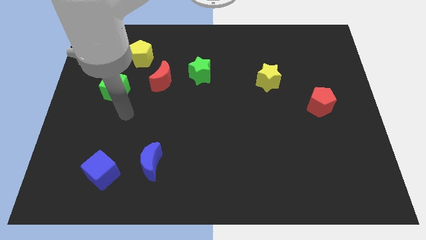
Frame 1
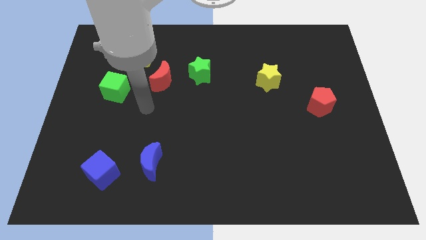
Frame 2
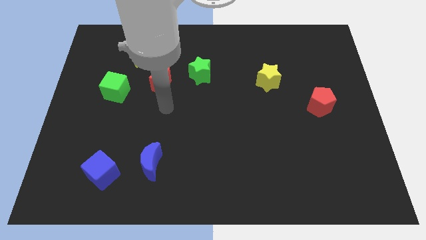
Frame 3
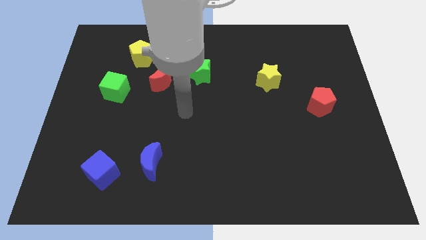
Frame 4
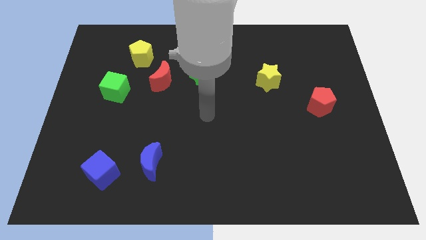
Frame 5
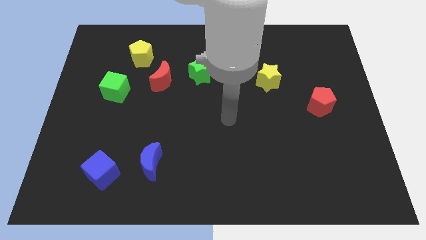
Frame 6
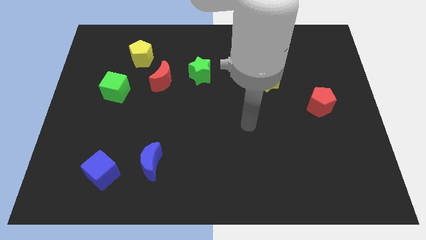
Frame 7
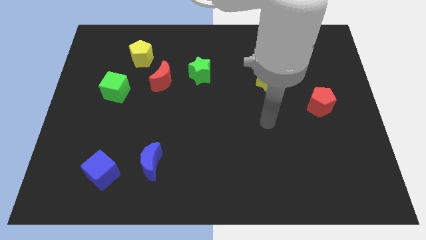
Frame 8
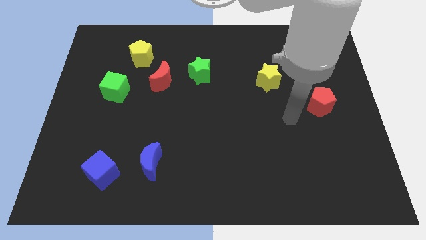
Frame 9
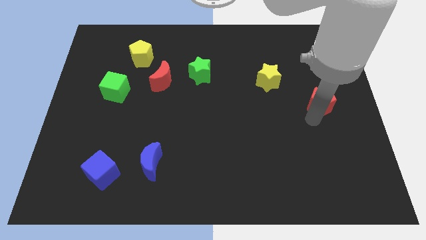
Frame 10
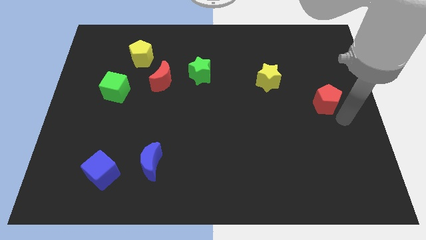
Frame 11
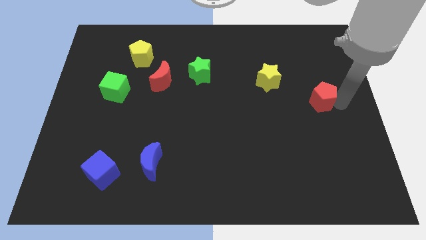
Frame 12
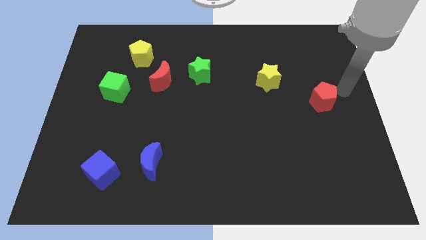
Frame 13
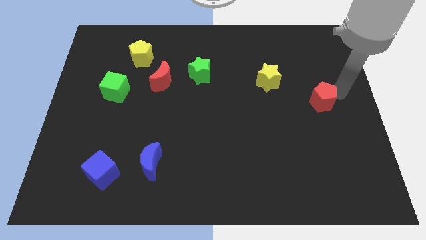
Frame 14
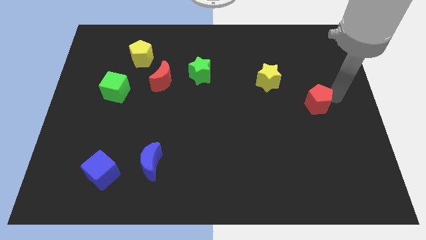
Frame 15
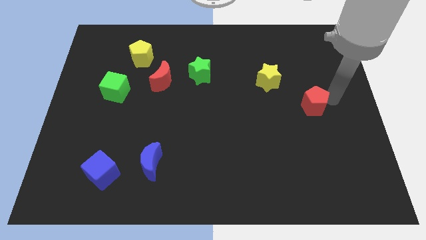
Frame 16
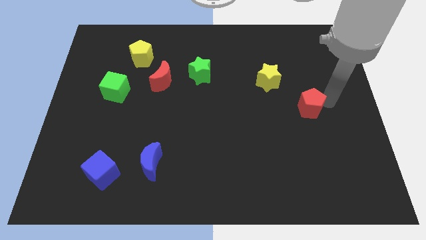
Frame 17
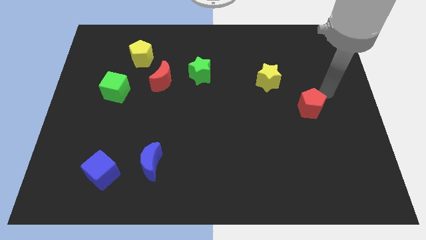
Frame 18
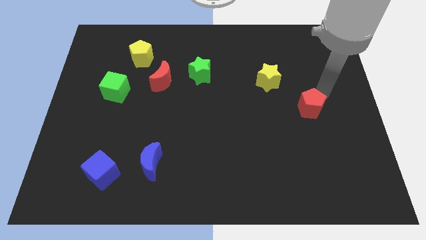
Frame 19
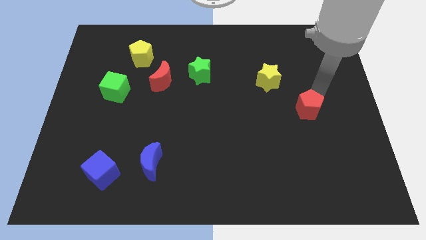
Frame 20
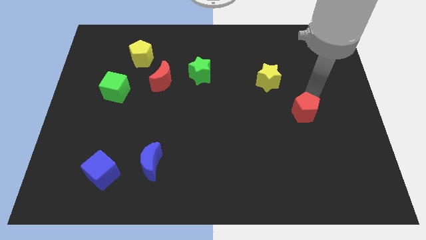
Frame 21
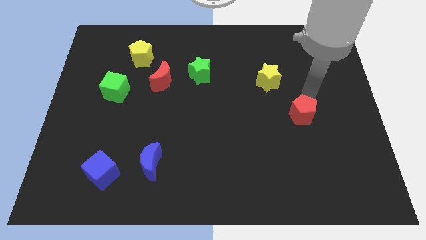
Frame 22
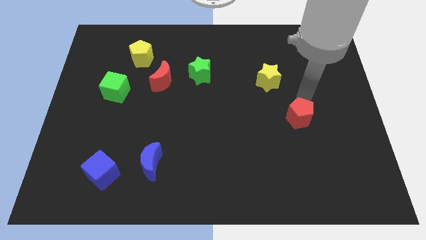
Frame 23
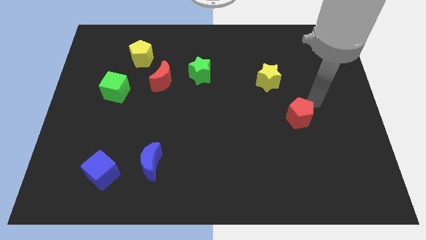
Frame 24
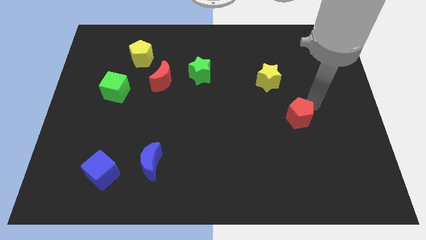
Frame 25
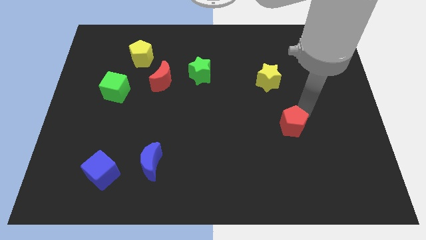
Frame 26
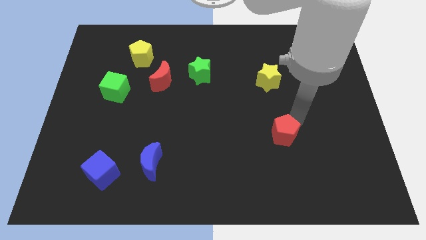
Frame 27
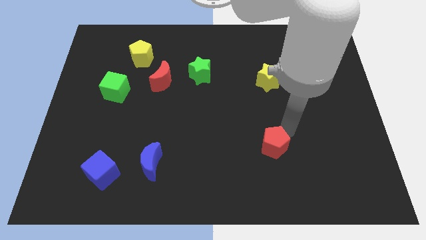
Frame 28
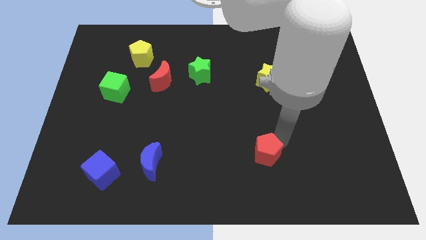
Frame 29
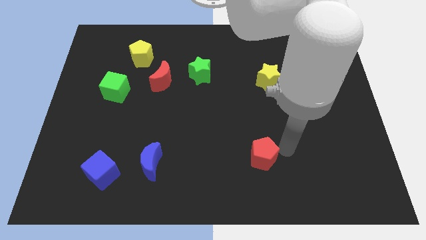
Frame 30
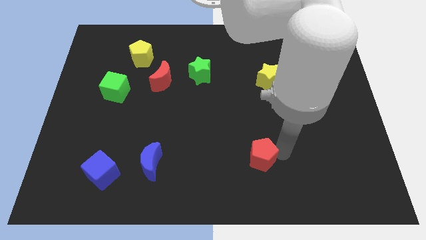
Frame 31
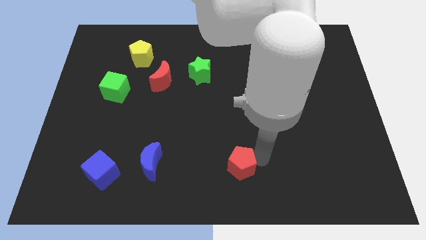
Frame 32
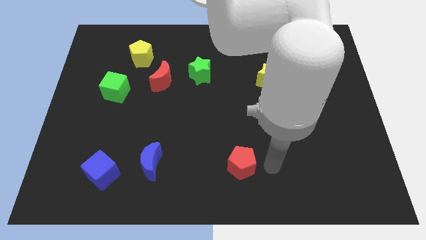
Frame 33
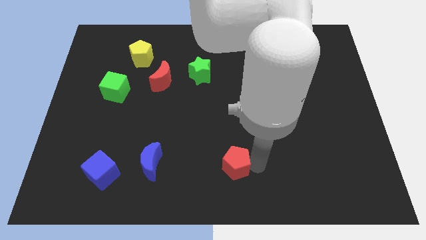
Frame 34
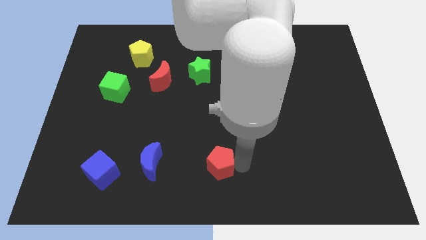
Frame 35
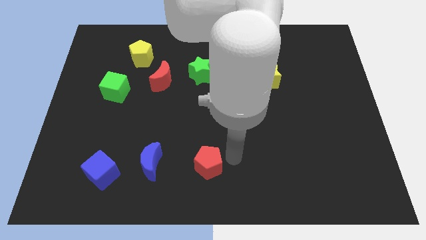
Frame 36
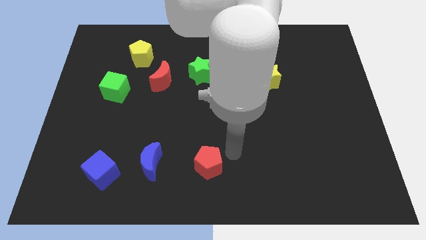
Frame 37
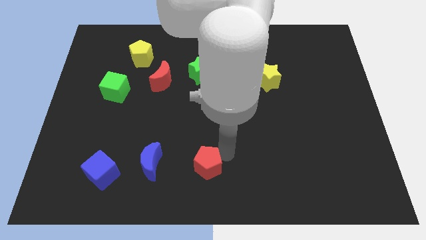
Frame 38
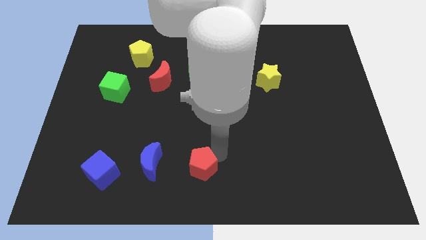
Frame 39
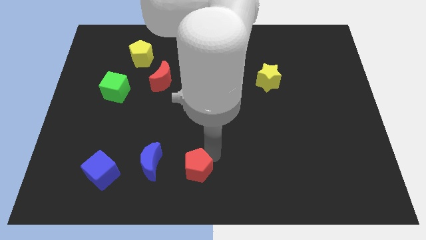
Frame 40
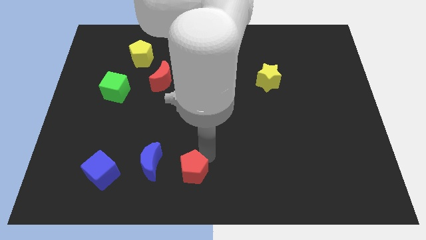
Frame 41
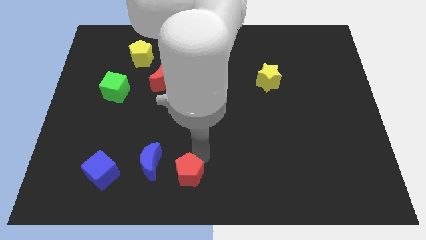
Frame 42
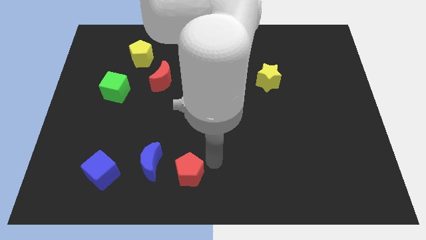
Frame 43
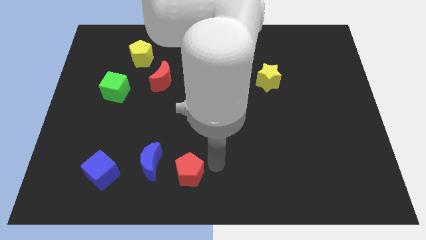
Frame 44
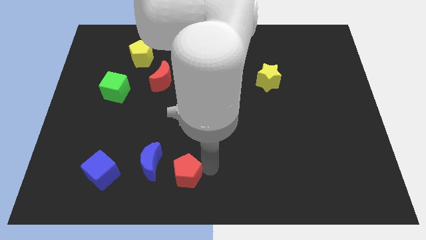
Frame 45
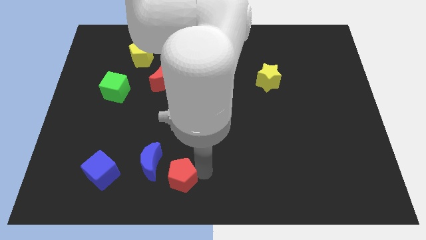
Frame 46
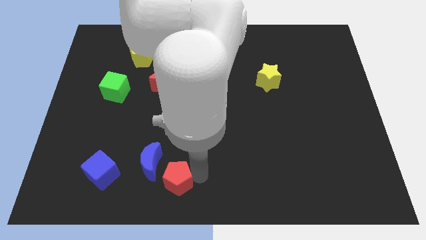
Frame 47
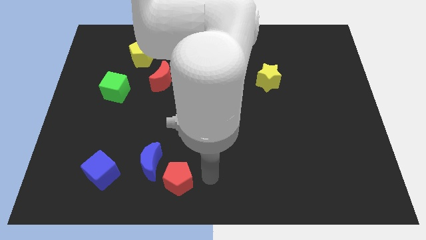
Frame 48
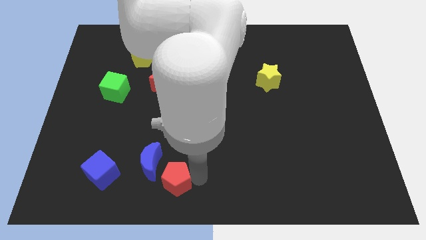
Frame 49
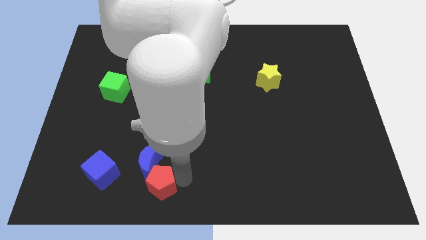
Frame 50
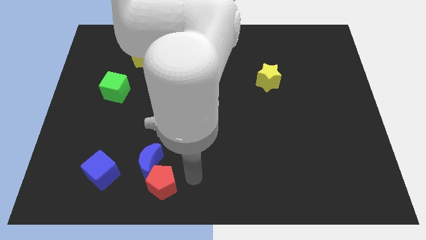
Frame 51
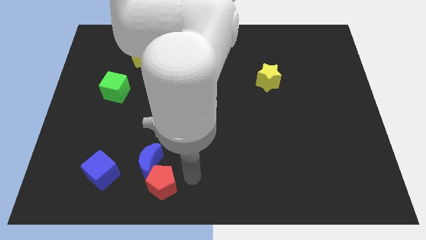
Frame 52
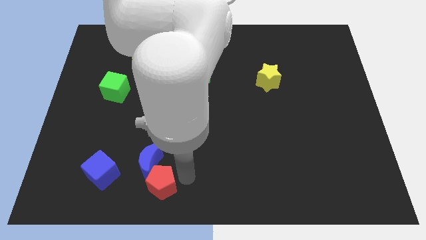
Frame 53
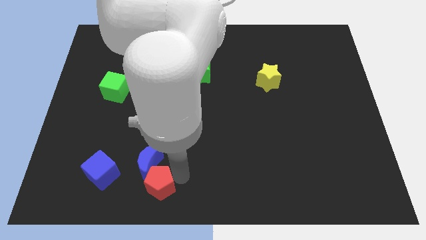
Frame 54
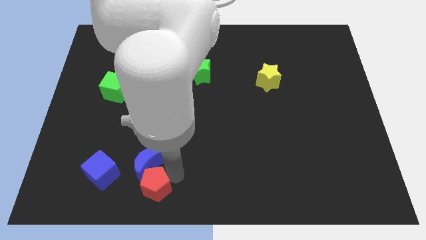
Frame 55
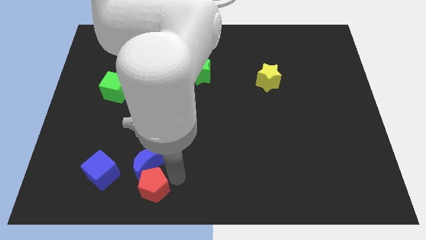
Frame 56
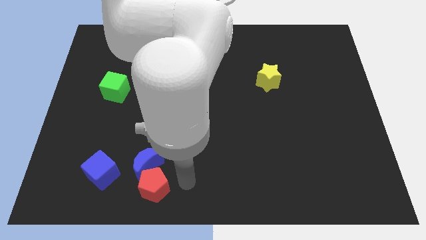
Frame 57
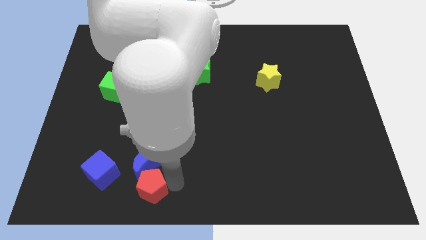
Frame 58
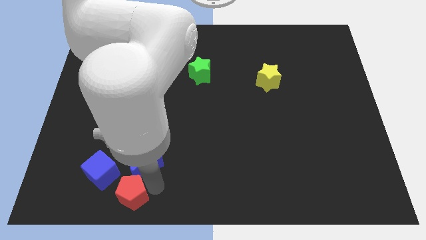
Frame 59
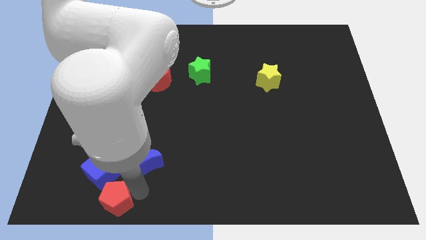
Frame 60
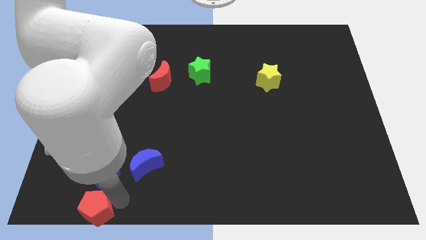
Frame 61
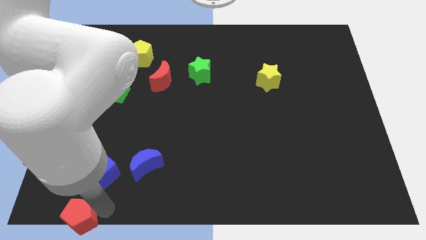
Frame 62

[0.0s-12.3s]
slide the red pentagon to the bottom left of the board

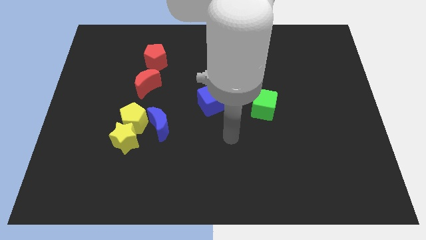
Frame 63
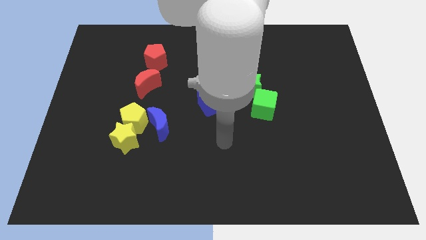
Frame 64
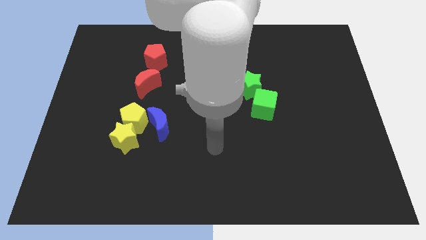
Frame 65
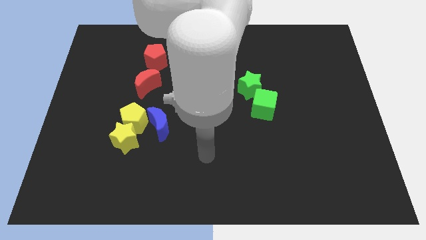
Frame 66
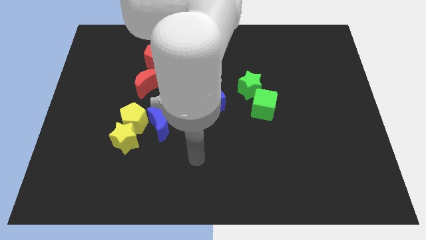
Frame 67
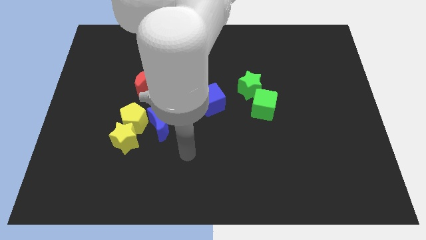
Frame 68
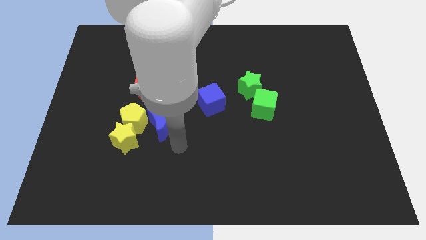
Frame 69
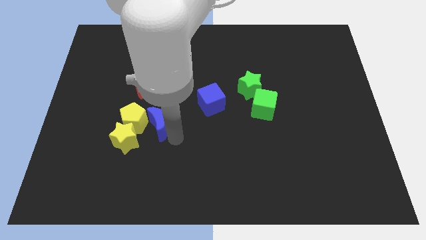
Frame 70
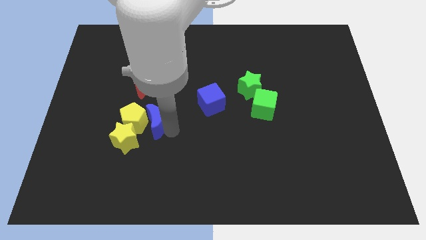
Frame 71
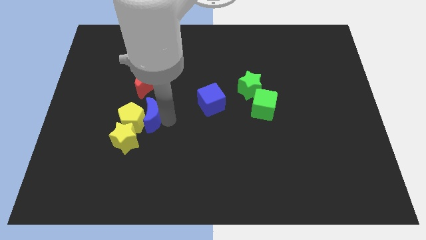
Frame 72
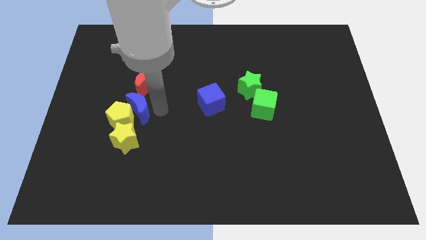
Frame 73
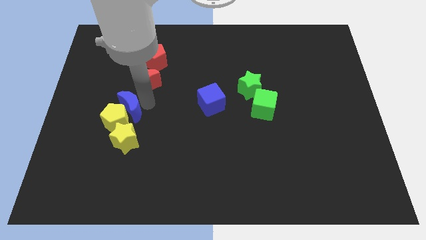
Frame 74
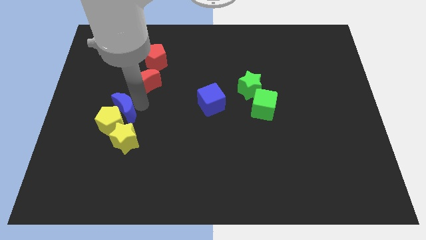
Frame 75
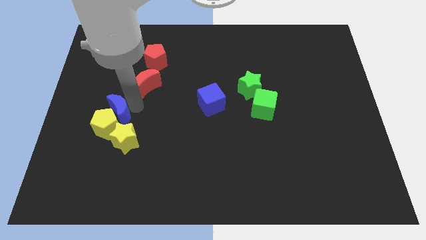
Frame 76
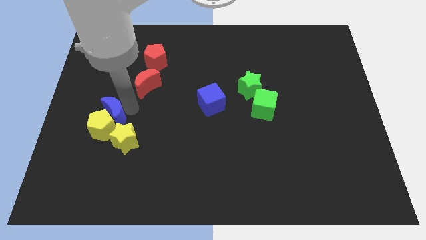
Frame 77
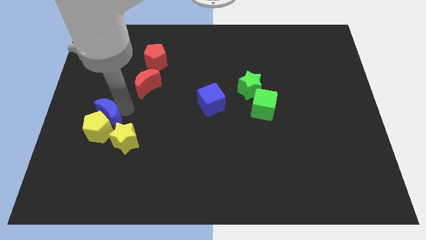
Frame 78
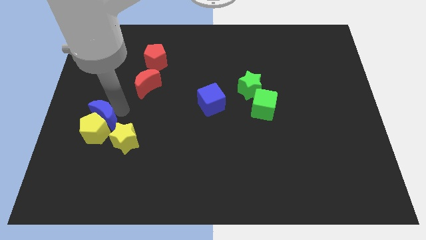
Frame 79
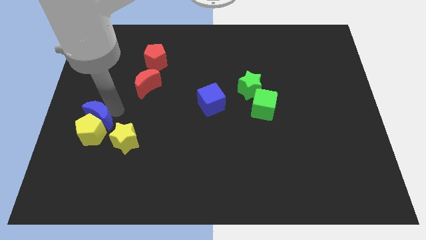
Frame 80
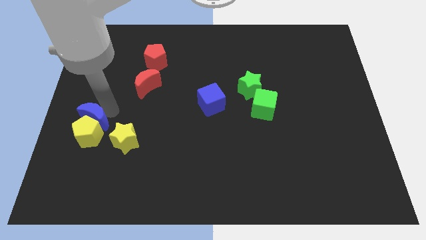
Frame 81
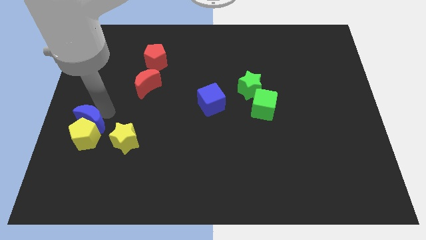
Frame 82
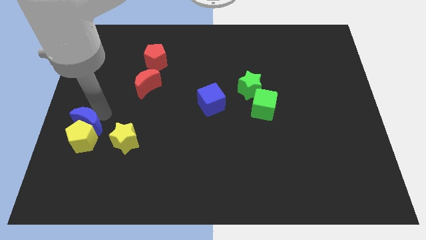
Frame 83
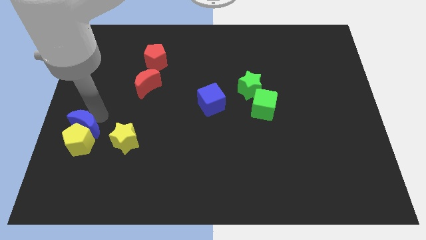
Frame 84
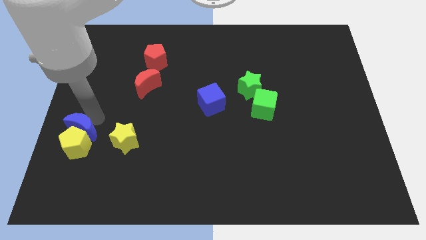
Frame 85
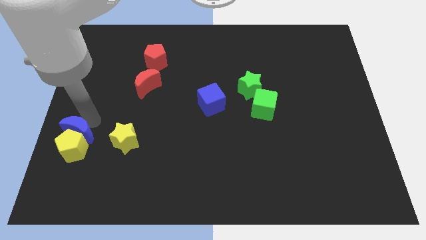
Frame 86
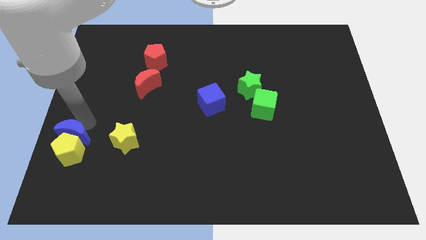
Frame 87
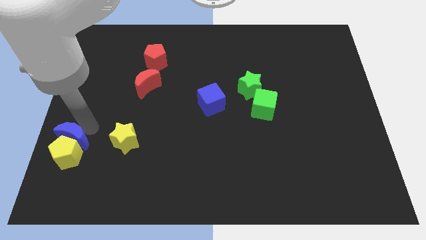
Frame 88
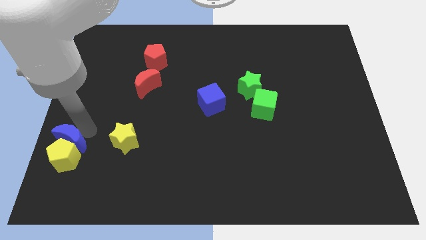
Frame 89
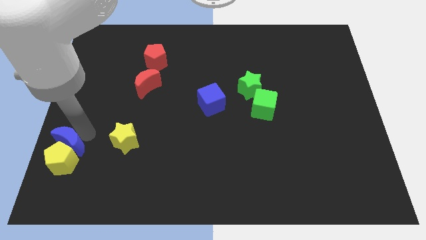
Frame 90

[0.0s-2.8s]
put the yellow pentagon to the bottom left corner
